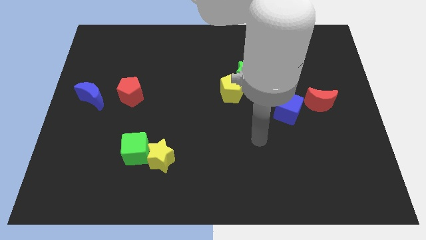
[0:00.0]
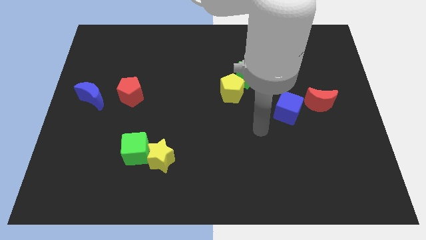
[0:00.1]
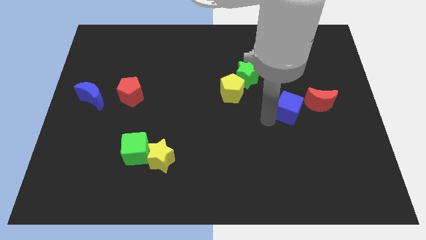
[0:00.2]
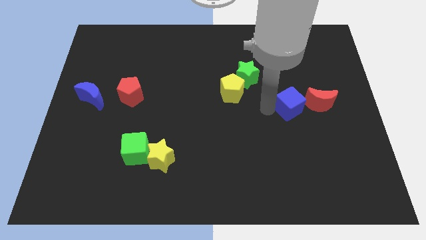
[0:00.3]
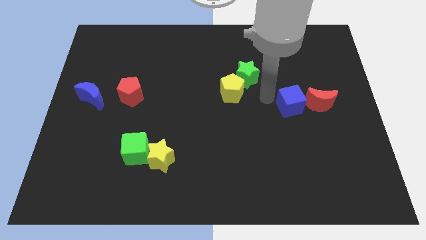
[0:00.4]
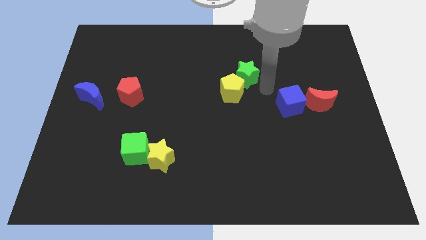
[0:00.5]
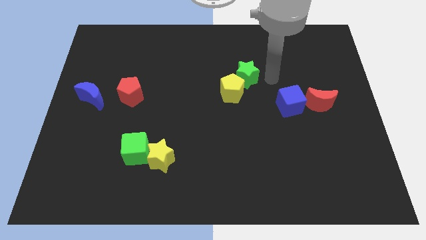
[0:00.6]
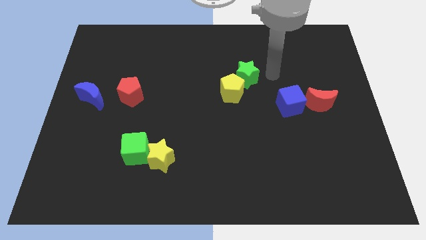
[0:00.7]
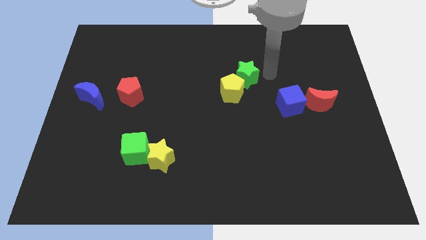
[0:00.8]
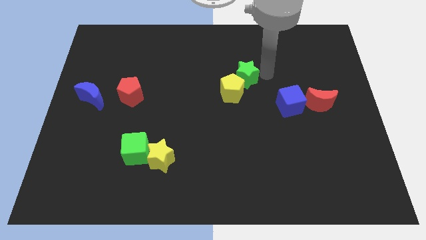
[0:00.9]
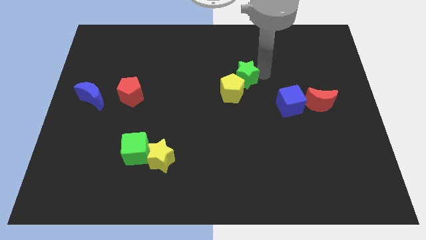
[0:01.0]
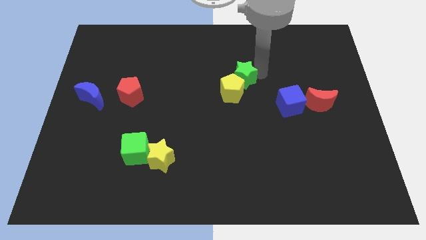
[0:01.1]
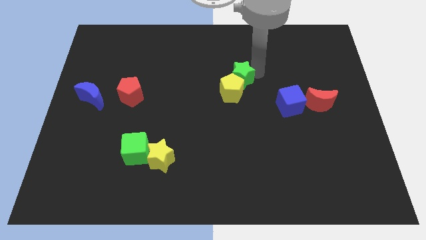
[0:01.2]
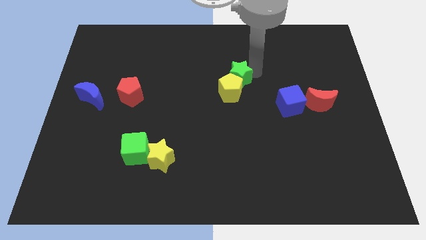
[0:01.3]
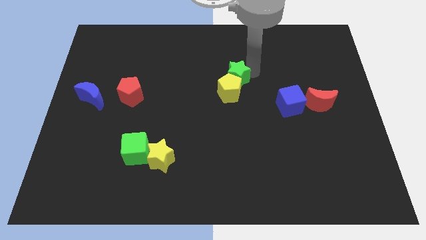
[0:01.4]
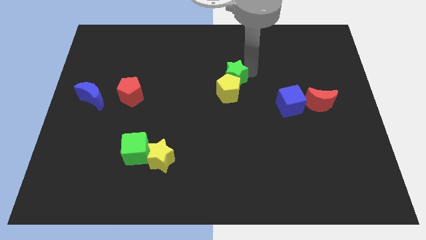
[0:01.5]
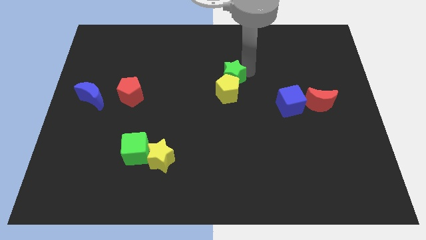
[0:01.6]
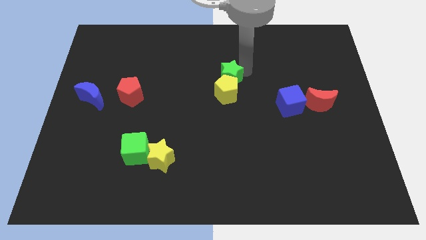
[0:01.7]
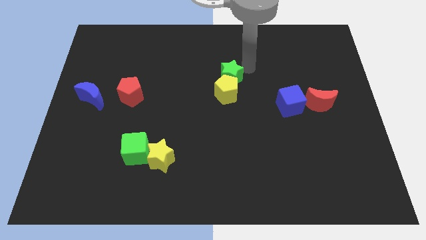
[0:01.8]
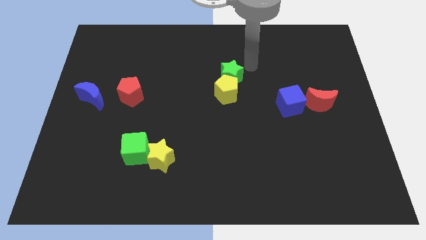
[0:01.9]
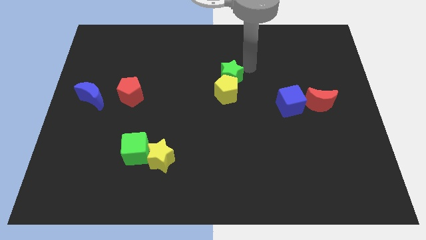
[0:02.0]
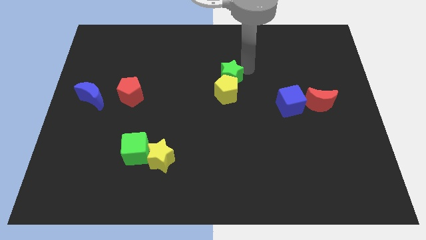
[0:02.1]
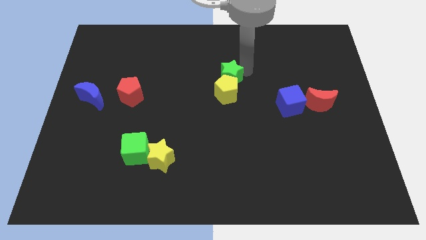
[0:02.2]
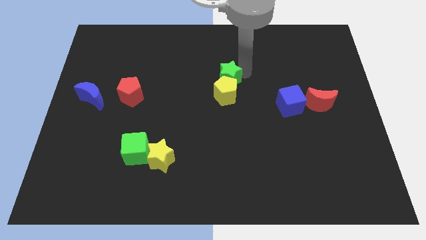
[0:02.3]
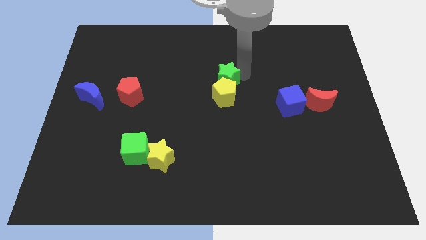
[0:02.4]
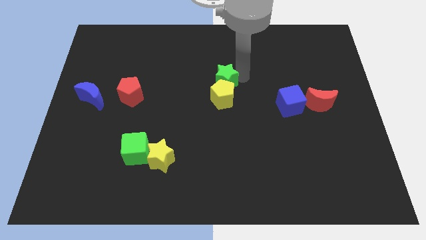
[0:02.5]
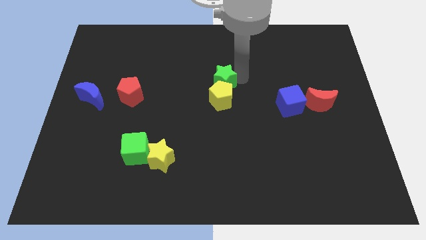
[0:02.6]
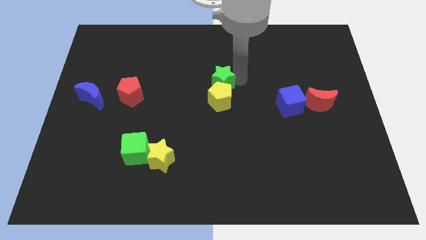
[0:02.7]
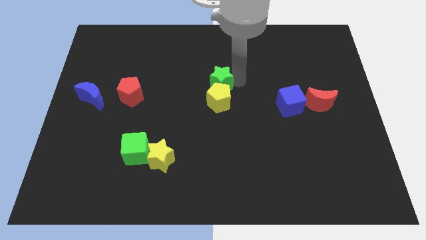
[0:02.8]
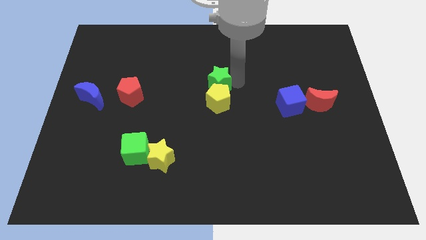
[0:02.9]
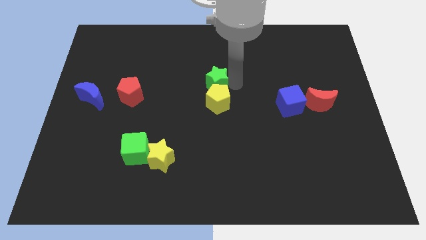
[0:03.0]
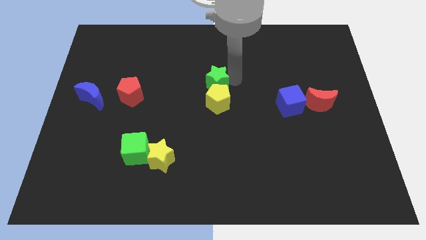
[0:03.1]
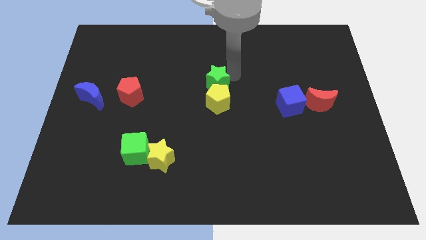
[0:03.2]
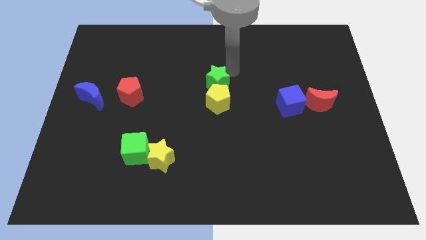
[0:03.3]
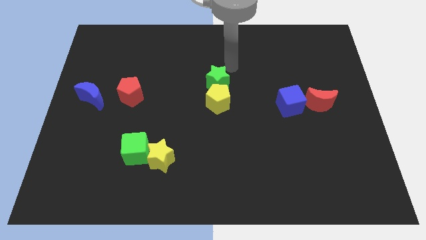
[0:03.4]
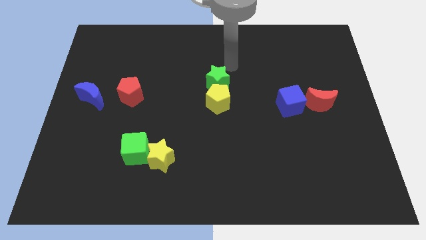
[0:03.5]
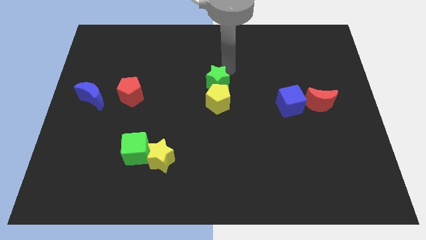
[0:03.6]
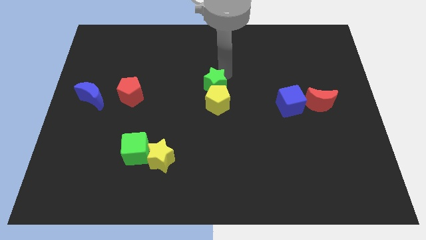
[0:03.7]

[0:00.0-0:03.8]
slightly move the green star diagonally downwards and to the left

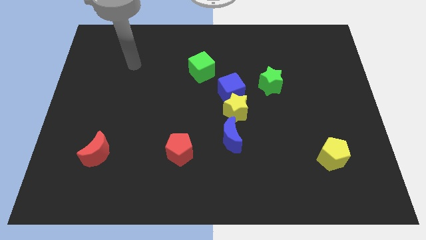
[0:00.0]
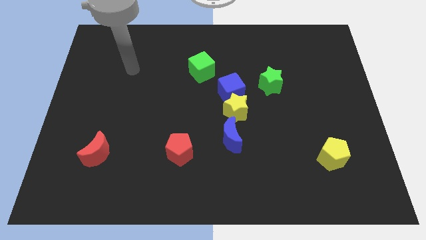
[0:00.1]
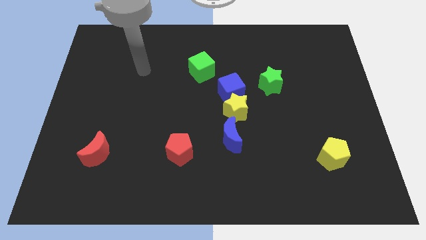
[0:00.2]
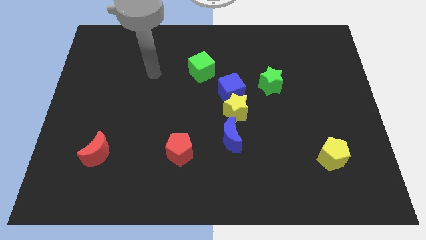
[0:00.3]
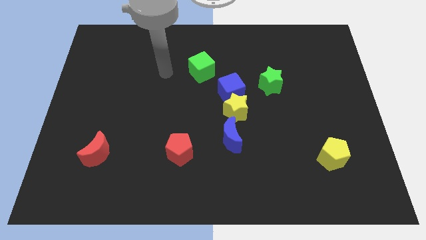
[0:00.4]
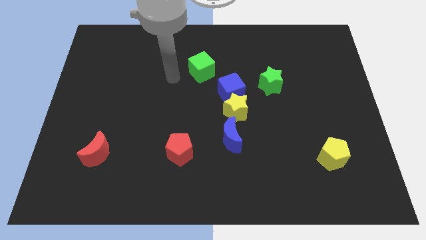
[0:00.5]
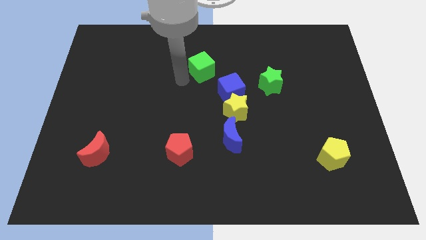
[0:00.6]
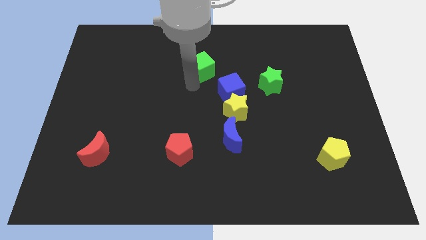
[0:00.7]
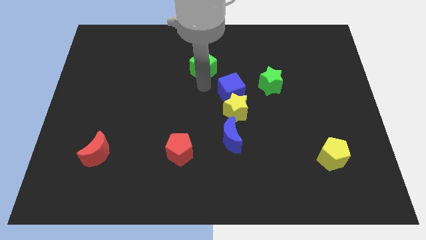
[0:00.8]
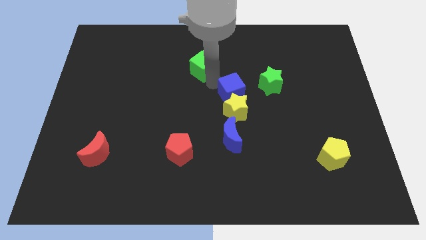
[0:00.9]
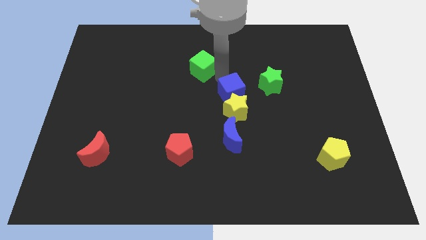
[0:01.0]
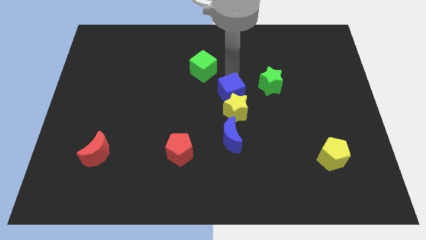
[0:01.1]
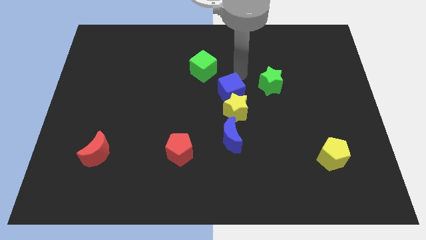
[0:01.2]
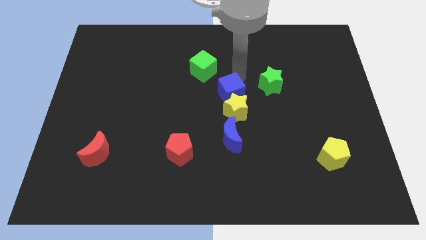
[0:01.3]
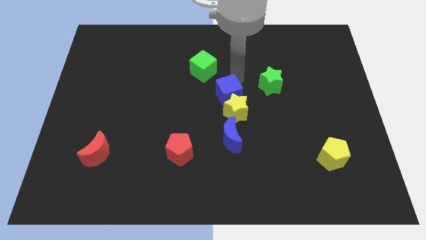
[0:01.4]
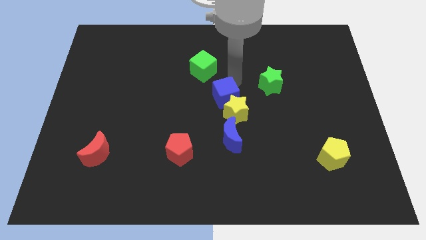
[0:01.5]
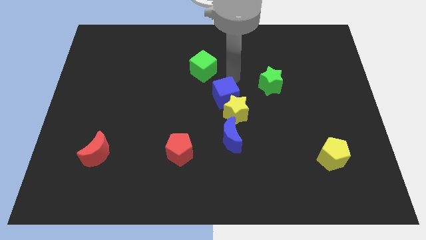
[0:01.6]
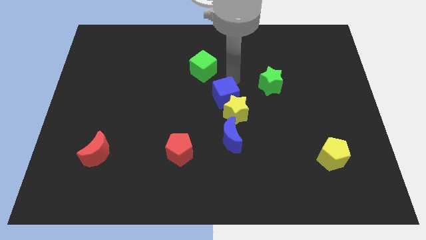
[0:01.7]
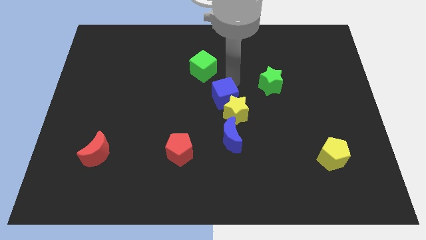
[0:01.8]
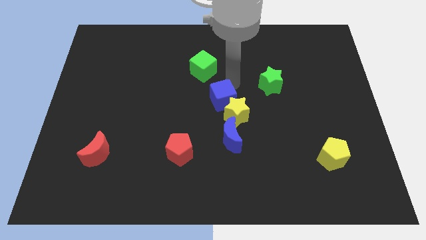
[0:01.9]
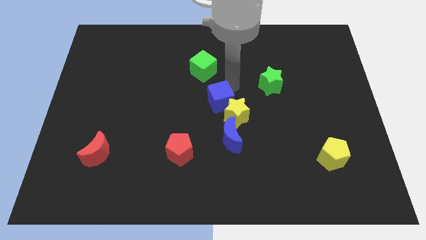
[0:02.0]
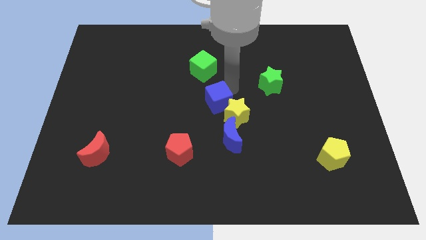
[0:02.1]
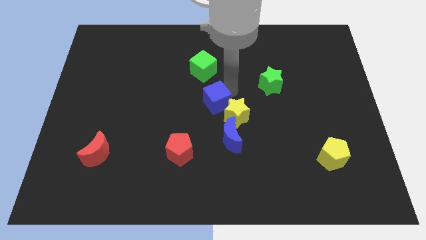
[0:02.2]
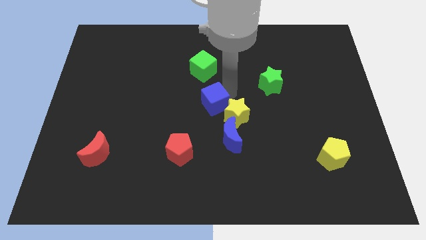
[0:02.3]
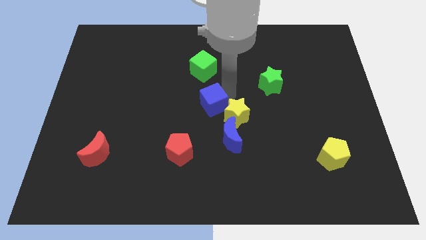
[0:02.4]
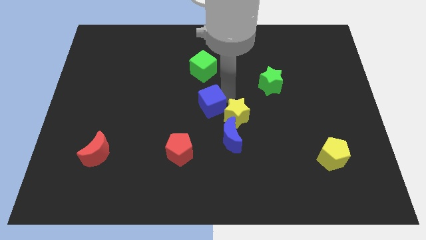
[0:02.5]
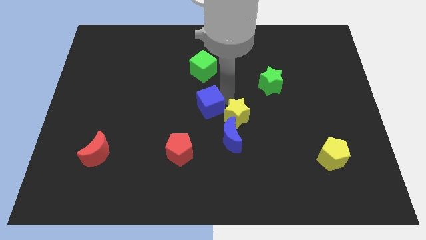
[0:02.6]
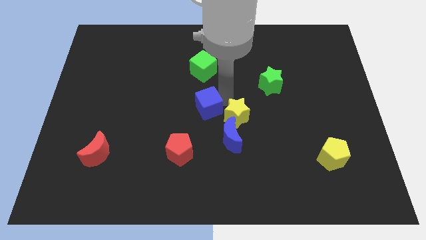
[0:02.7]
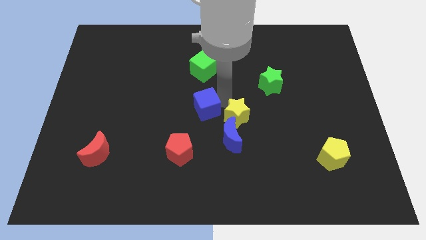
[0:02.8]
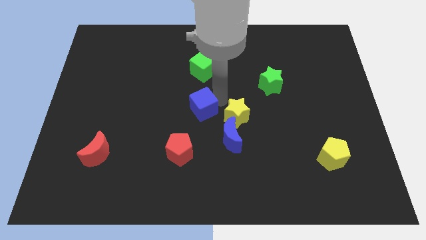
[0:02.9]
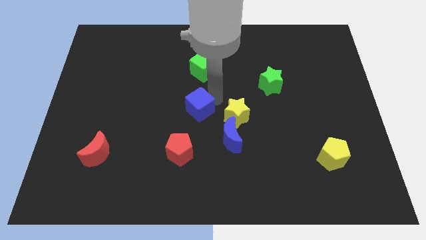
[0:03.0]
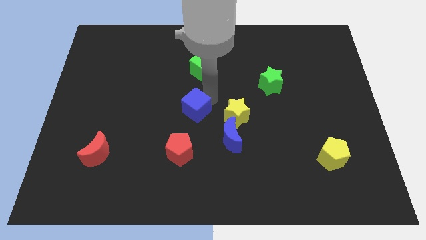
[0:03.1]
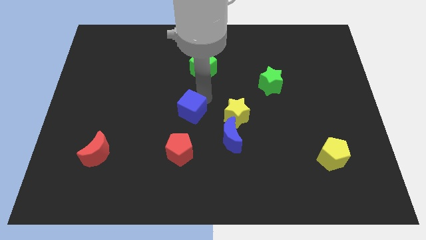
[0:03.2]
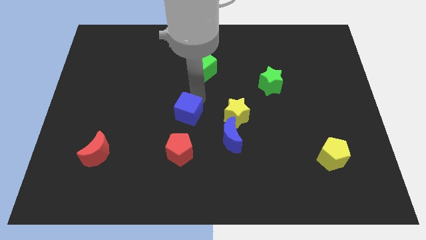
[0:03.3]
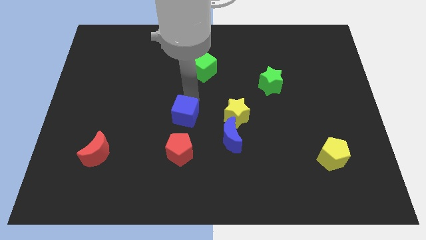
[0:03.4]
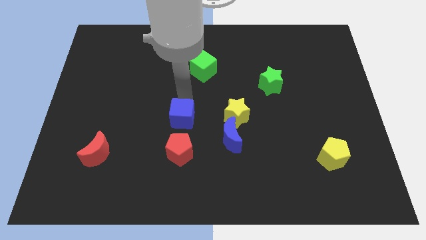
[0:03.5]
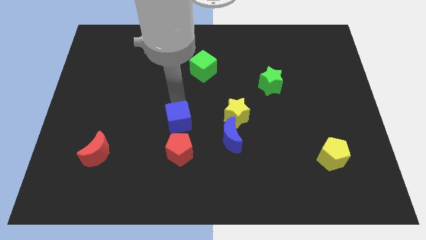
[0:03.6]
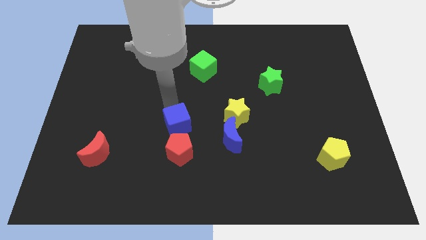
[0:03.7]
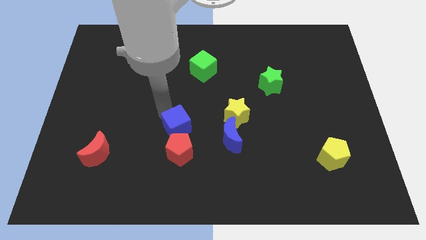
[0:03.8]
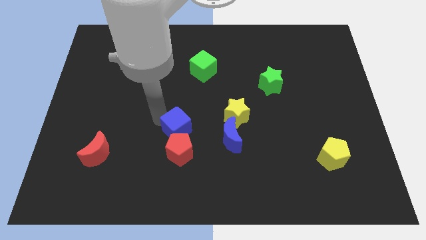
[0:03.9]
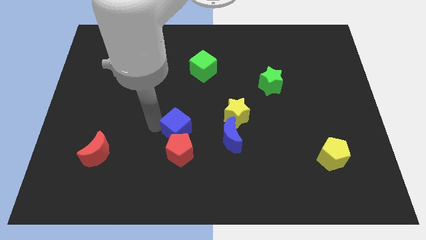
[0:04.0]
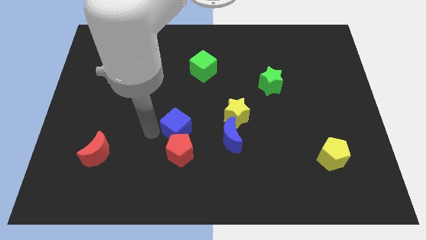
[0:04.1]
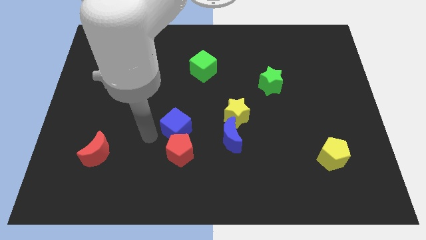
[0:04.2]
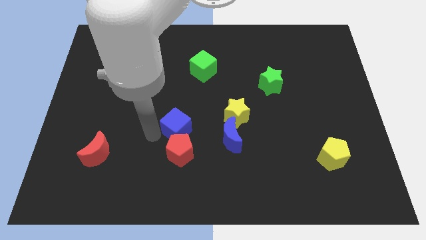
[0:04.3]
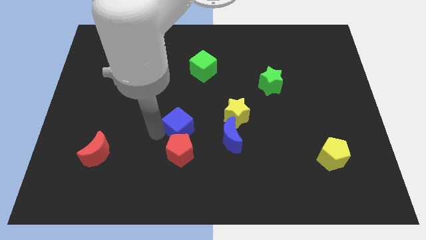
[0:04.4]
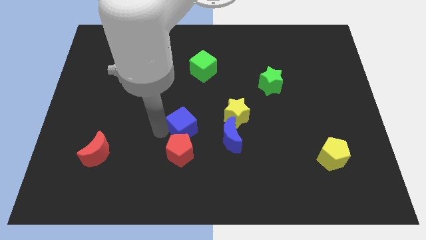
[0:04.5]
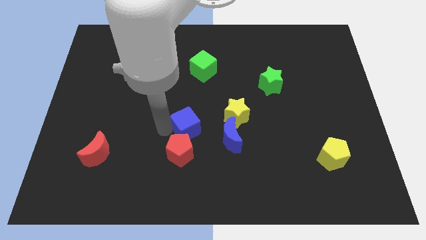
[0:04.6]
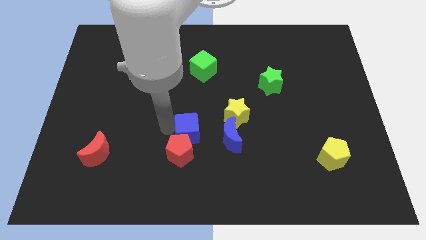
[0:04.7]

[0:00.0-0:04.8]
slightly slide the blue cube down
